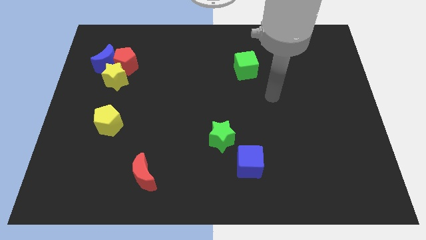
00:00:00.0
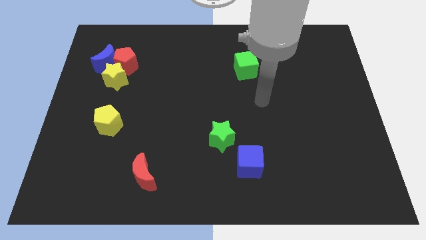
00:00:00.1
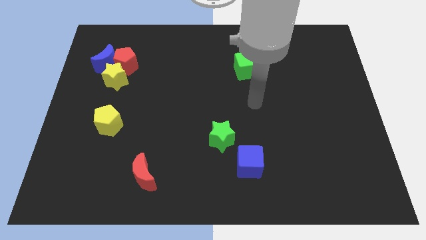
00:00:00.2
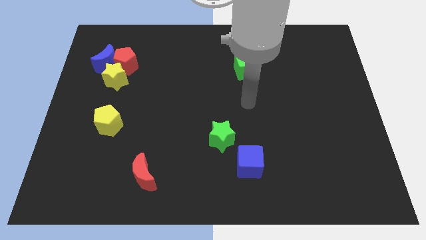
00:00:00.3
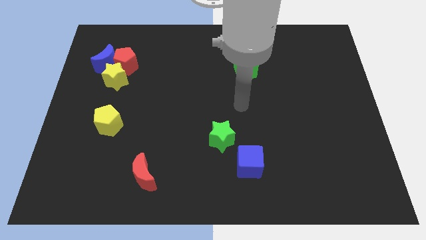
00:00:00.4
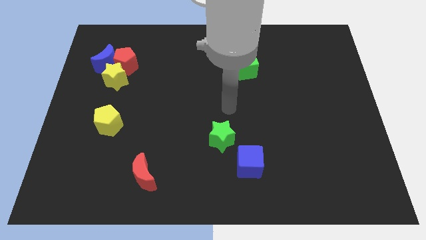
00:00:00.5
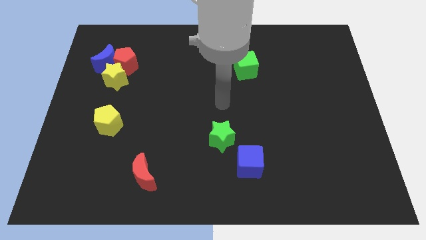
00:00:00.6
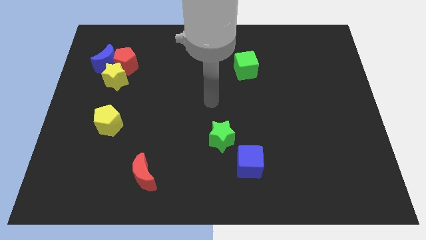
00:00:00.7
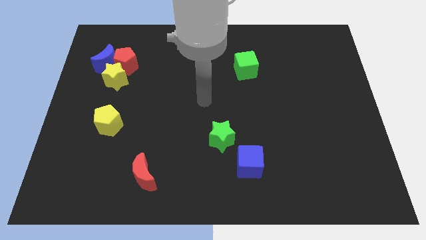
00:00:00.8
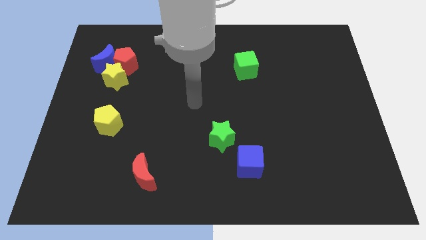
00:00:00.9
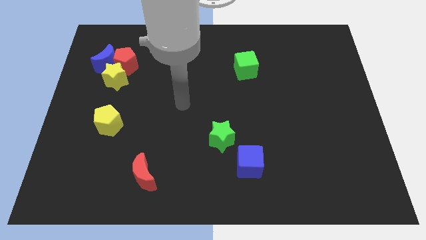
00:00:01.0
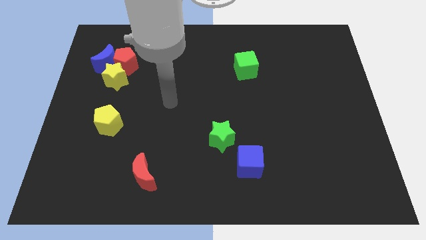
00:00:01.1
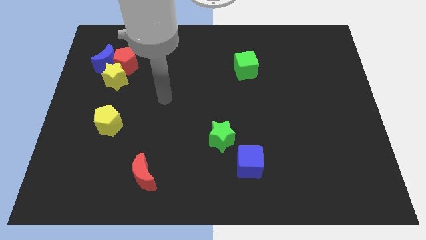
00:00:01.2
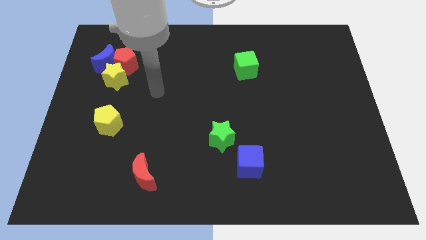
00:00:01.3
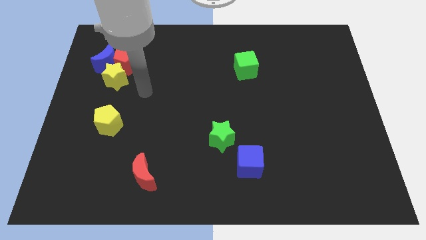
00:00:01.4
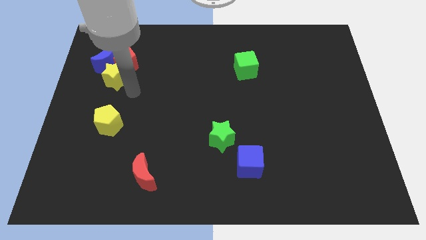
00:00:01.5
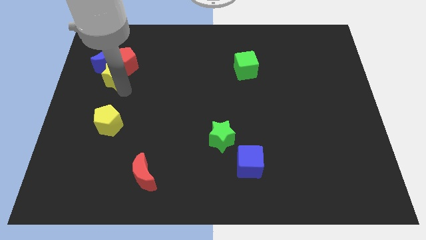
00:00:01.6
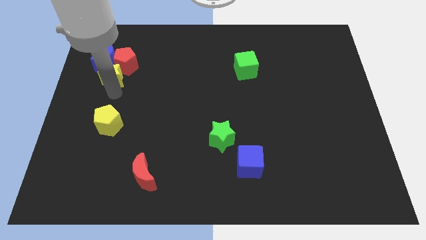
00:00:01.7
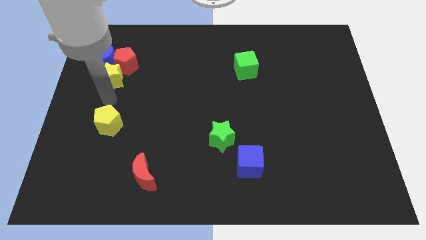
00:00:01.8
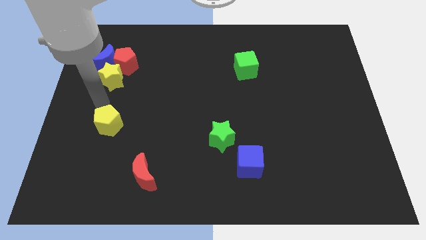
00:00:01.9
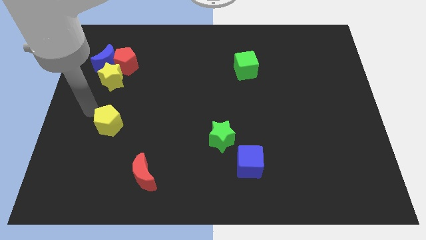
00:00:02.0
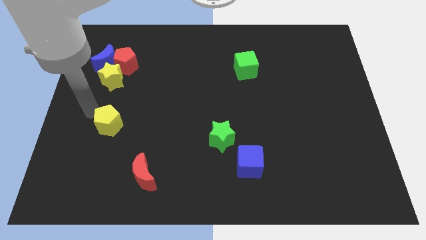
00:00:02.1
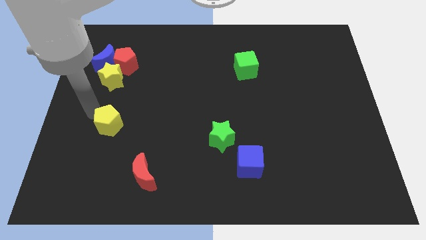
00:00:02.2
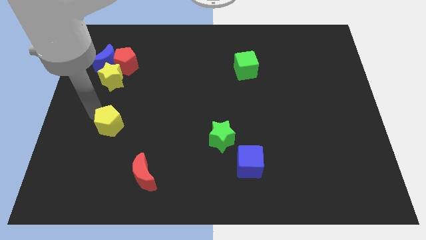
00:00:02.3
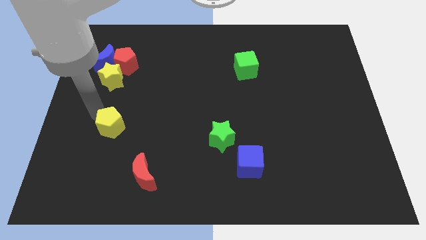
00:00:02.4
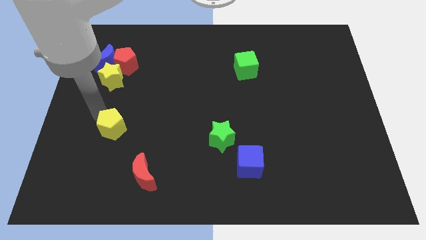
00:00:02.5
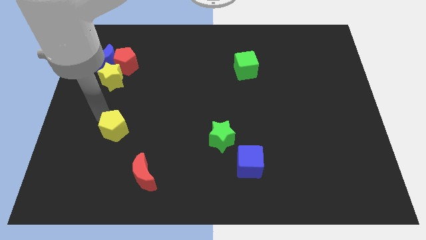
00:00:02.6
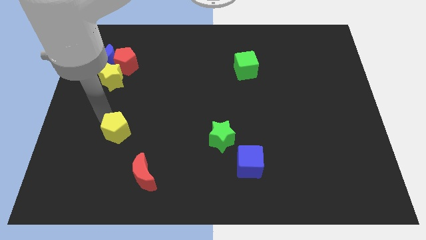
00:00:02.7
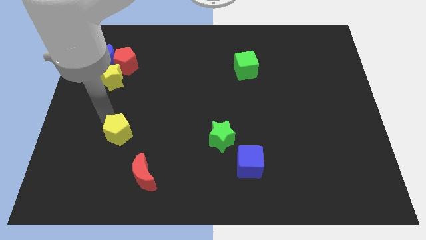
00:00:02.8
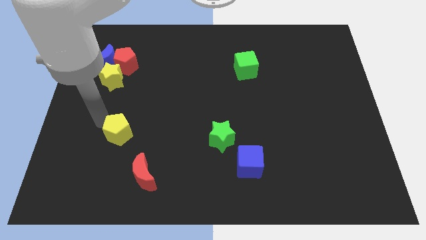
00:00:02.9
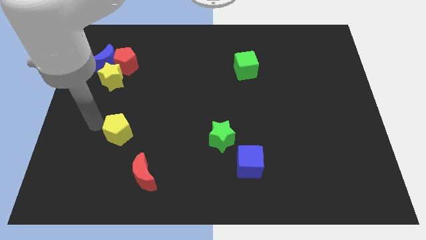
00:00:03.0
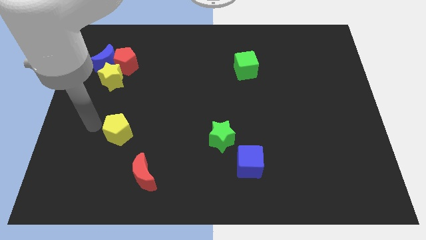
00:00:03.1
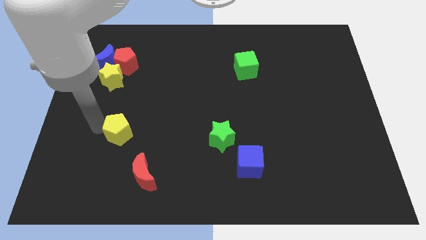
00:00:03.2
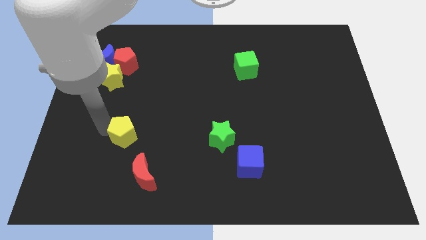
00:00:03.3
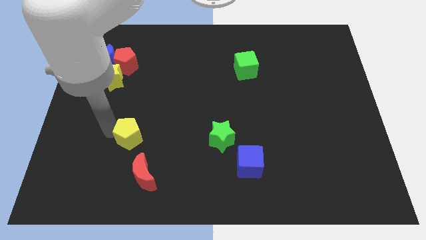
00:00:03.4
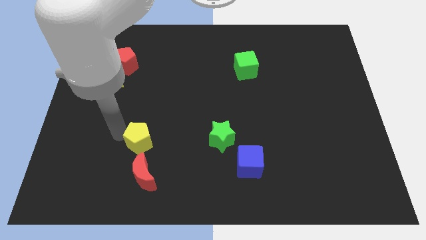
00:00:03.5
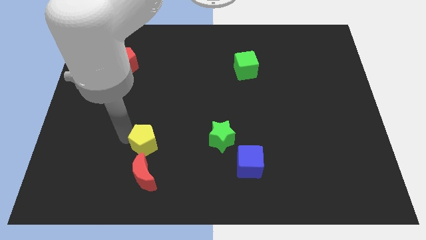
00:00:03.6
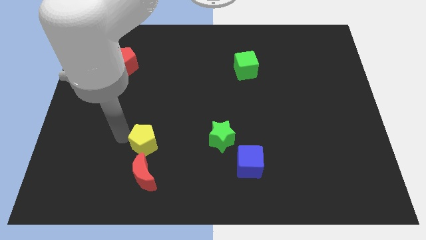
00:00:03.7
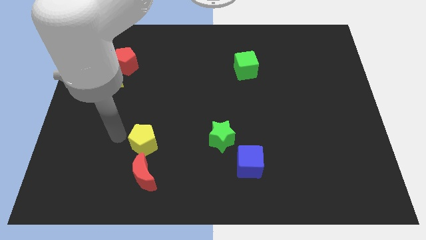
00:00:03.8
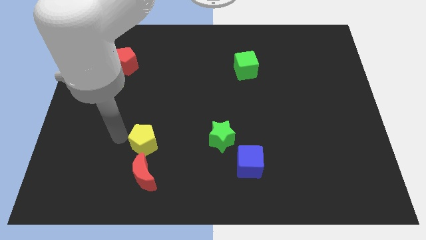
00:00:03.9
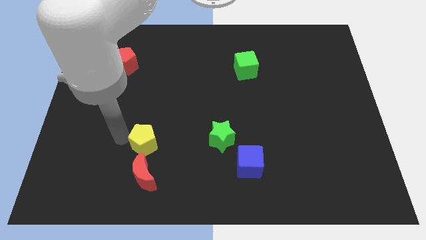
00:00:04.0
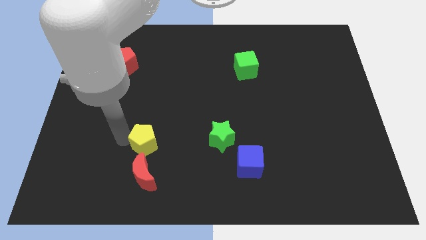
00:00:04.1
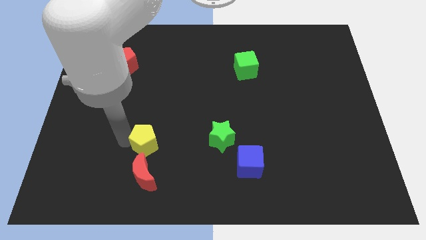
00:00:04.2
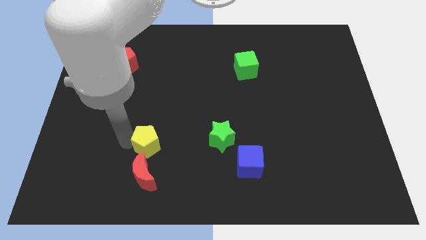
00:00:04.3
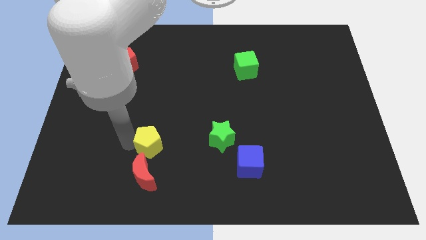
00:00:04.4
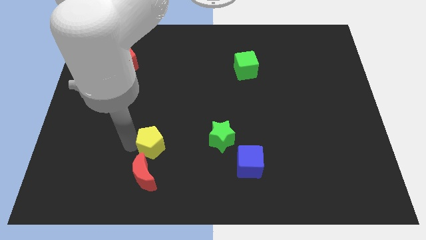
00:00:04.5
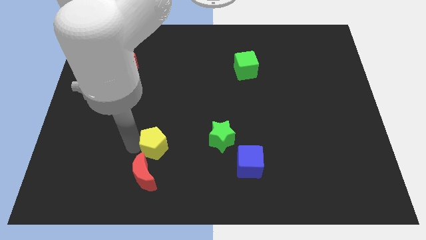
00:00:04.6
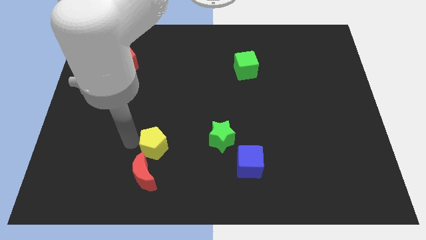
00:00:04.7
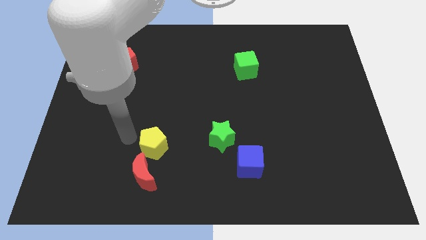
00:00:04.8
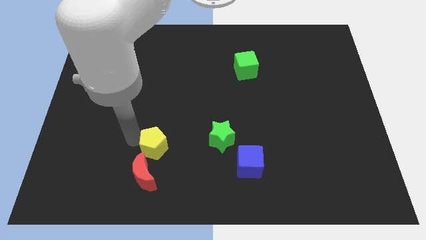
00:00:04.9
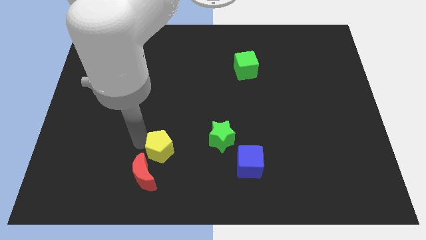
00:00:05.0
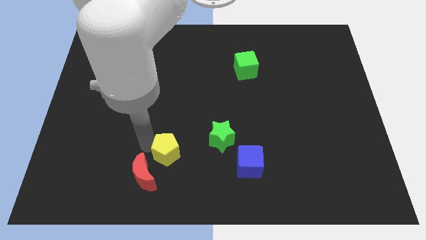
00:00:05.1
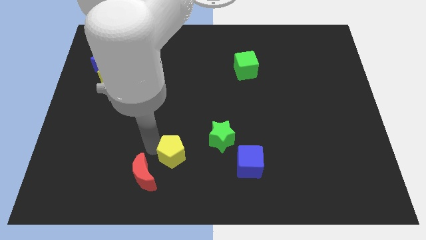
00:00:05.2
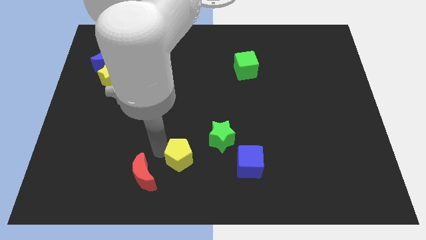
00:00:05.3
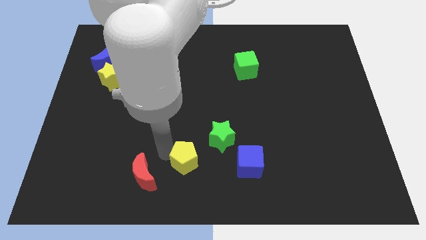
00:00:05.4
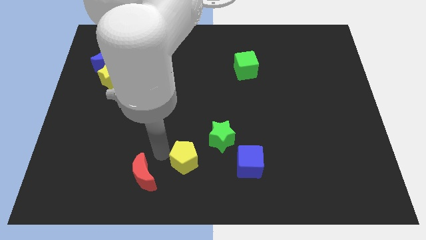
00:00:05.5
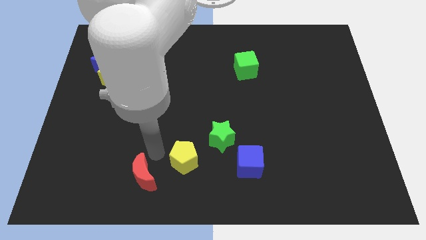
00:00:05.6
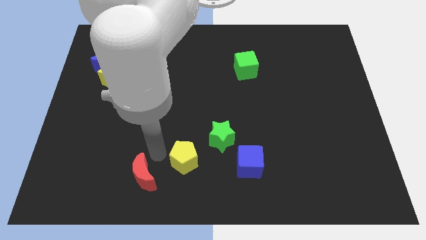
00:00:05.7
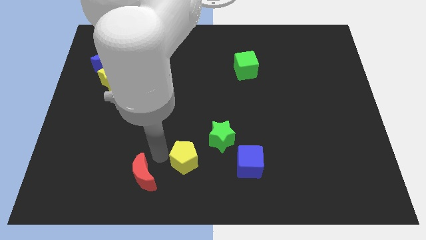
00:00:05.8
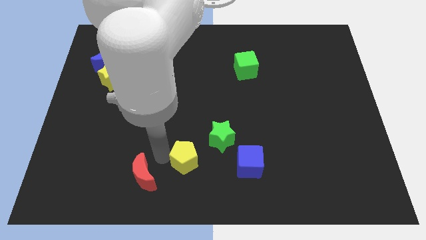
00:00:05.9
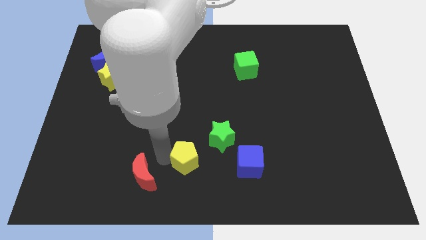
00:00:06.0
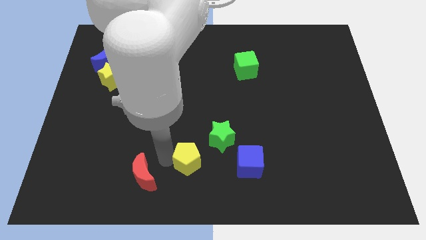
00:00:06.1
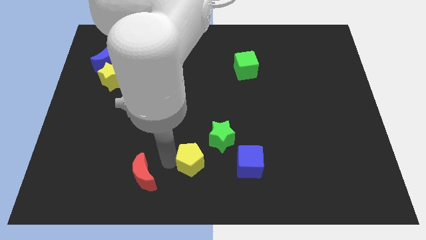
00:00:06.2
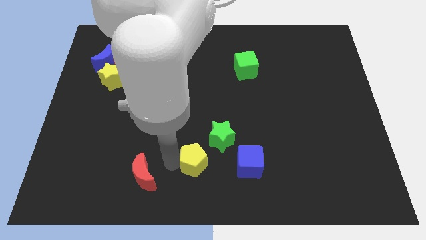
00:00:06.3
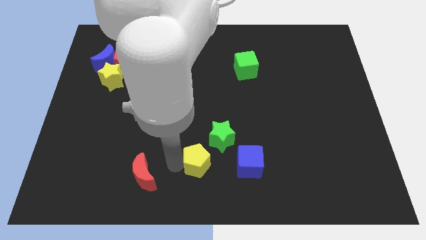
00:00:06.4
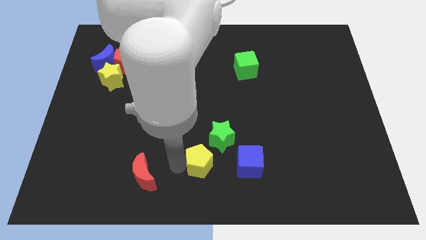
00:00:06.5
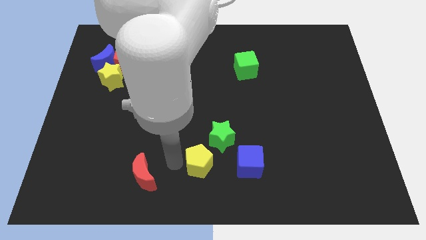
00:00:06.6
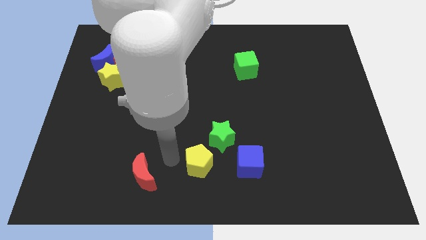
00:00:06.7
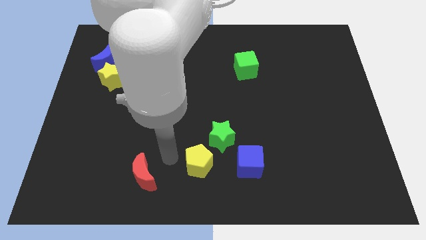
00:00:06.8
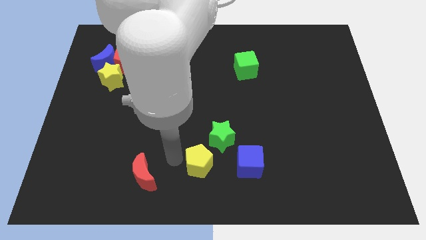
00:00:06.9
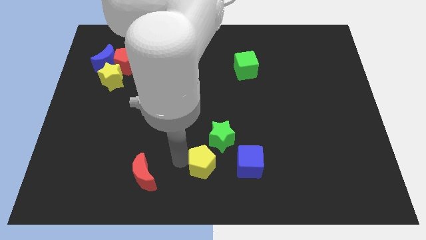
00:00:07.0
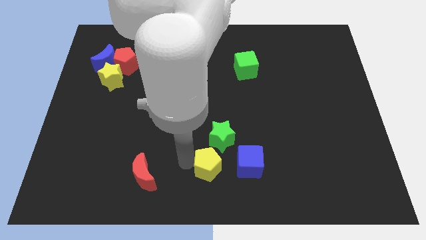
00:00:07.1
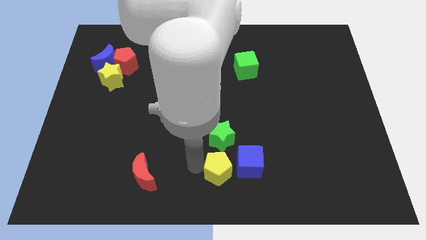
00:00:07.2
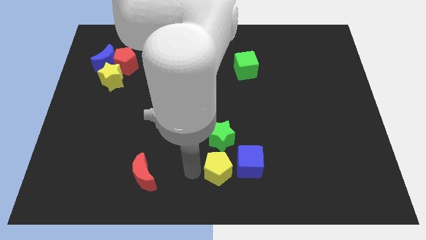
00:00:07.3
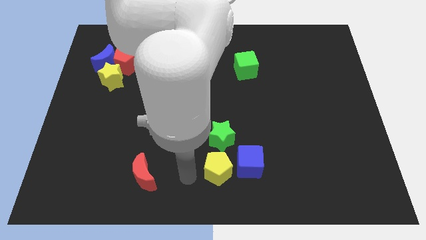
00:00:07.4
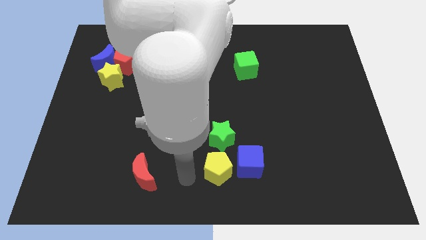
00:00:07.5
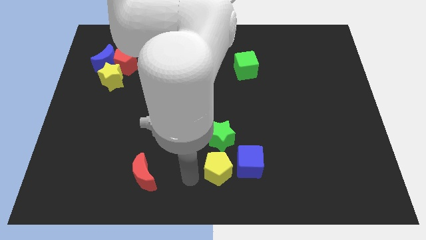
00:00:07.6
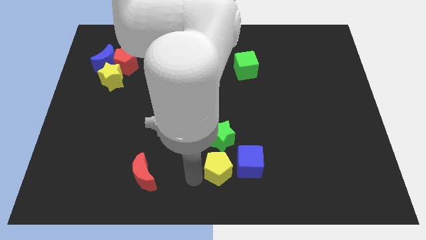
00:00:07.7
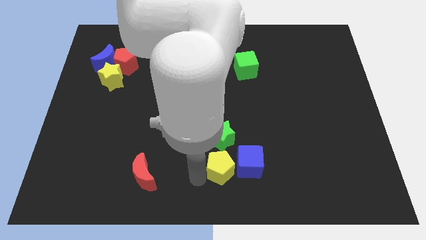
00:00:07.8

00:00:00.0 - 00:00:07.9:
push the yellow pentagon towards the blue cube
